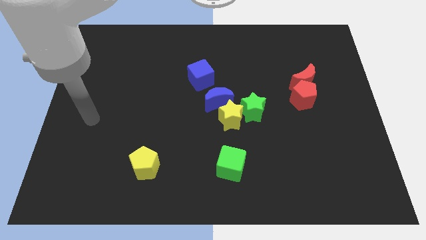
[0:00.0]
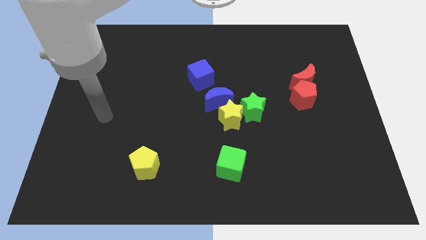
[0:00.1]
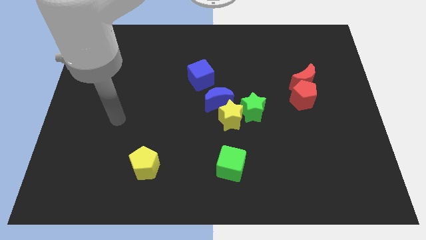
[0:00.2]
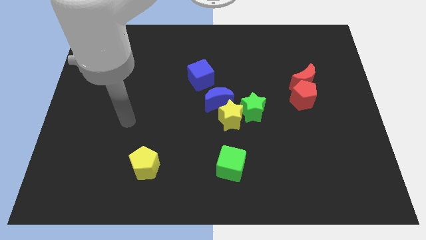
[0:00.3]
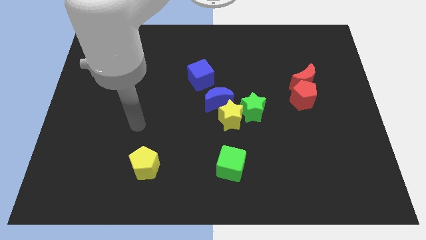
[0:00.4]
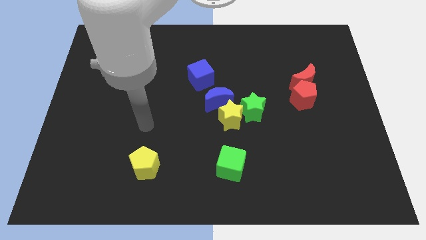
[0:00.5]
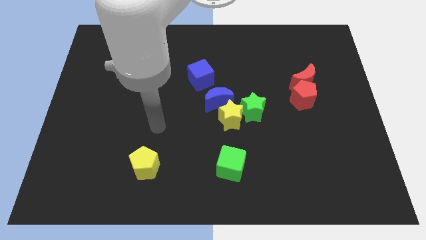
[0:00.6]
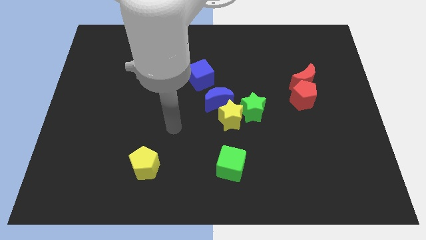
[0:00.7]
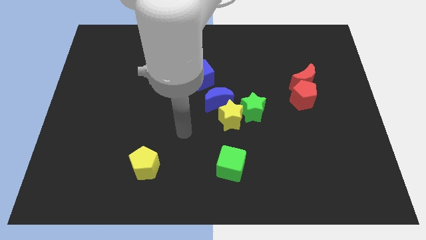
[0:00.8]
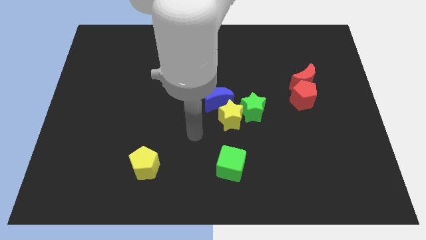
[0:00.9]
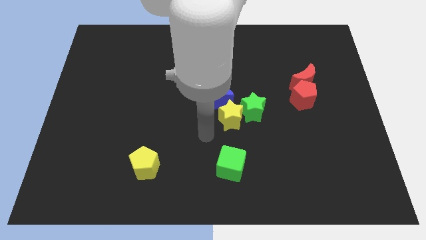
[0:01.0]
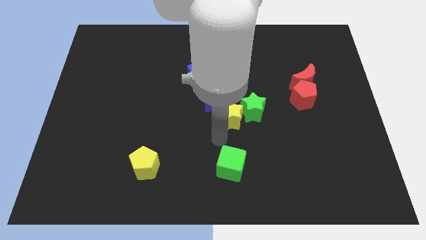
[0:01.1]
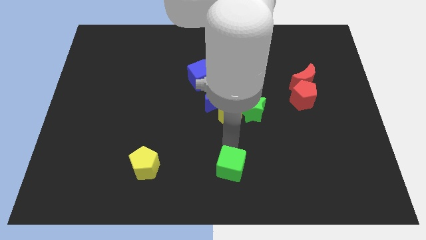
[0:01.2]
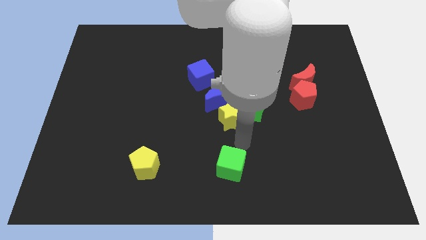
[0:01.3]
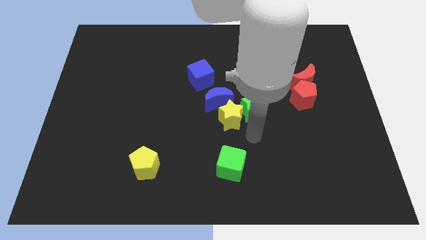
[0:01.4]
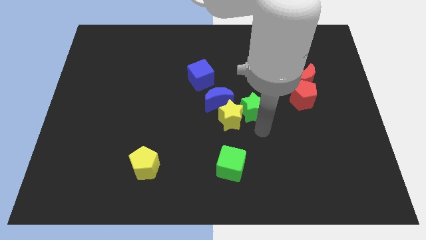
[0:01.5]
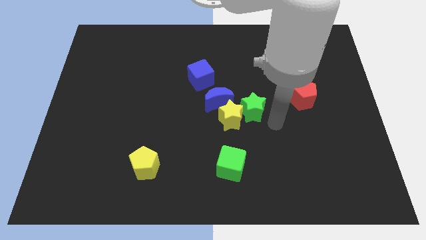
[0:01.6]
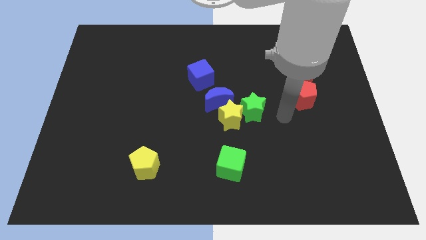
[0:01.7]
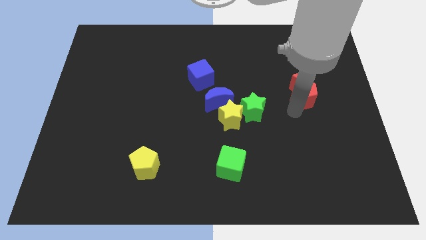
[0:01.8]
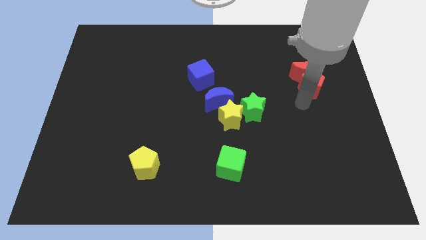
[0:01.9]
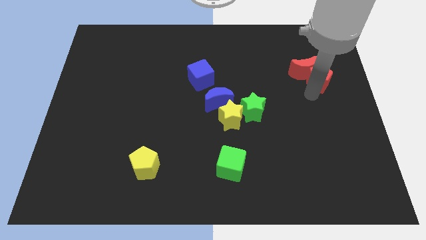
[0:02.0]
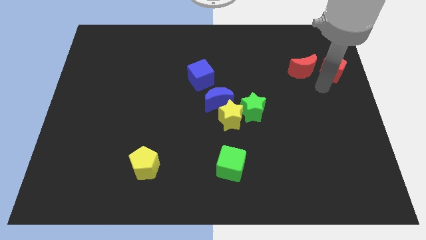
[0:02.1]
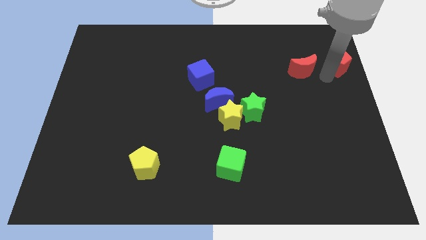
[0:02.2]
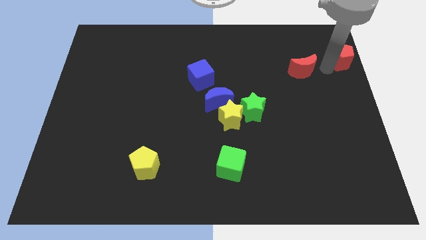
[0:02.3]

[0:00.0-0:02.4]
move the red moon away from the red pentagon

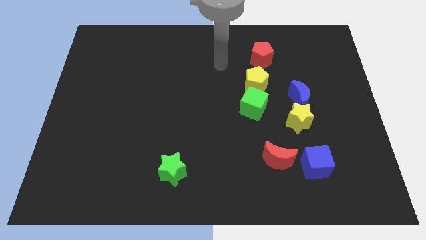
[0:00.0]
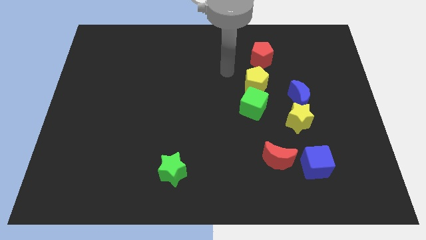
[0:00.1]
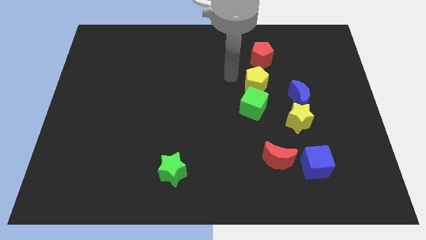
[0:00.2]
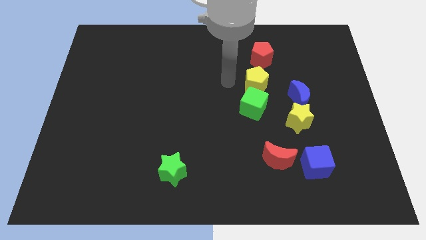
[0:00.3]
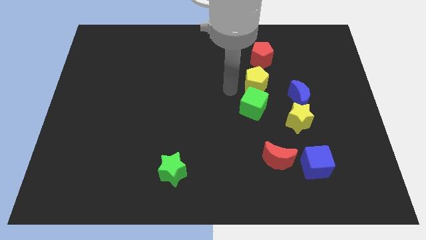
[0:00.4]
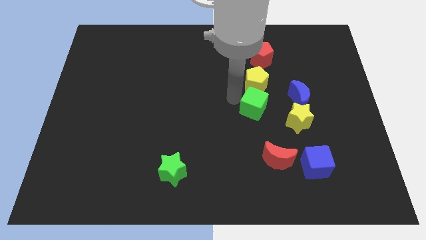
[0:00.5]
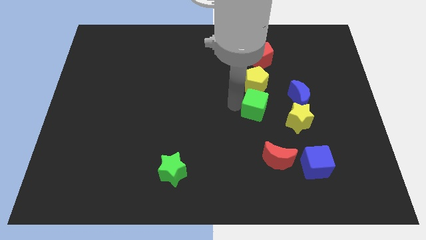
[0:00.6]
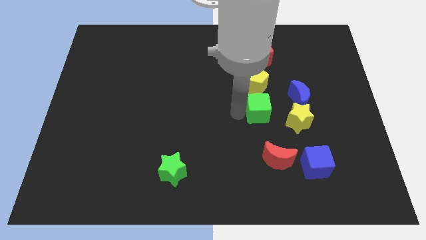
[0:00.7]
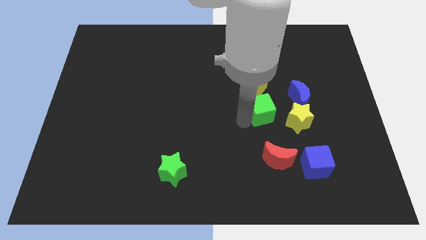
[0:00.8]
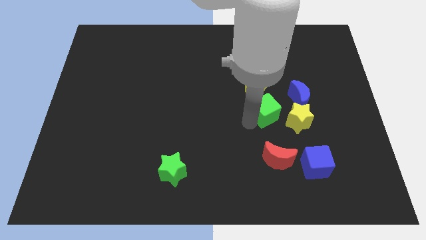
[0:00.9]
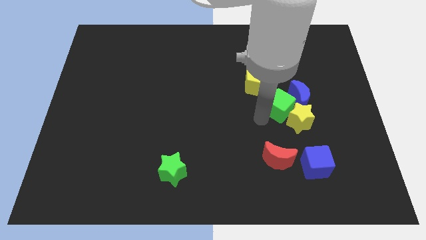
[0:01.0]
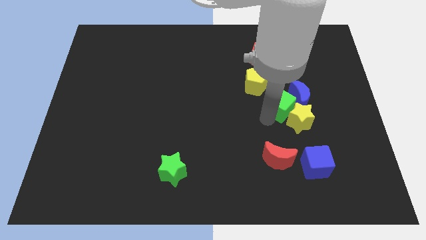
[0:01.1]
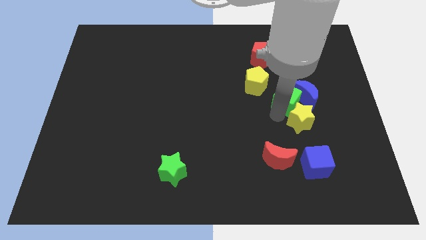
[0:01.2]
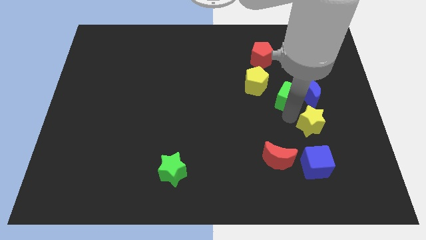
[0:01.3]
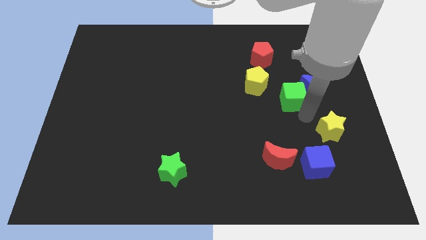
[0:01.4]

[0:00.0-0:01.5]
separate the blue moon from the yellow star

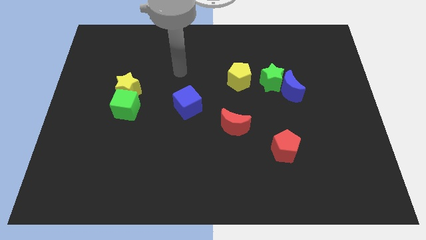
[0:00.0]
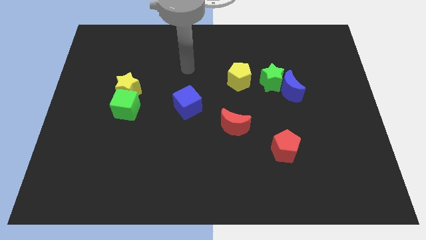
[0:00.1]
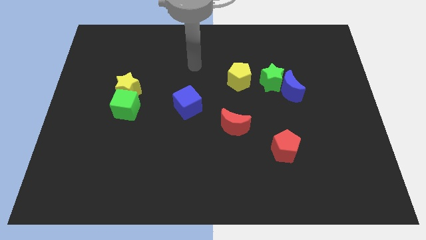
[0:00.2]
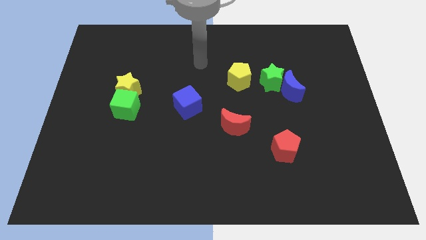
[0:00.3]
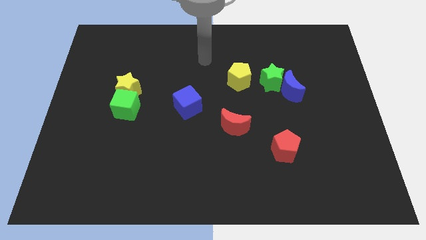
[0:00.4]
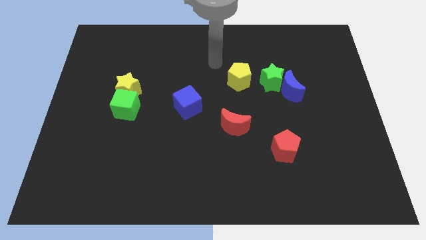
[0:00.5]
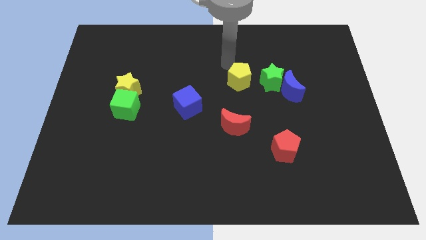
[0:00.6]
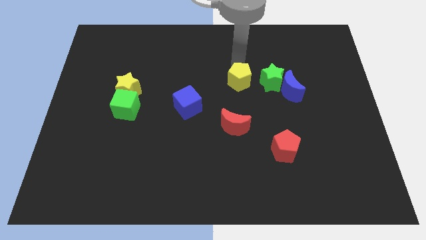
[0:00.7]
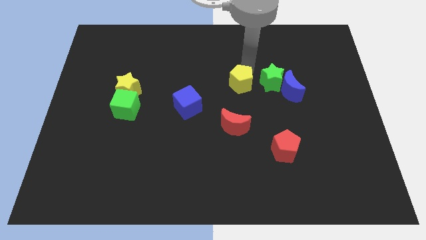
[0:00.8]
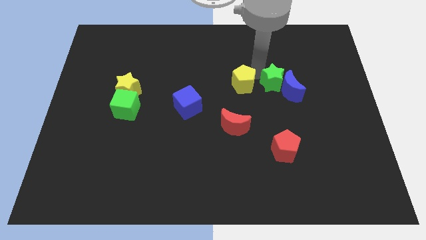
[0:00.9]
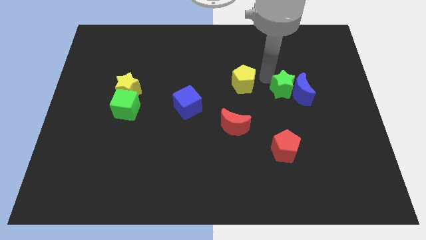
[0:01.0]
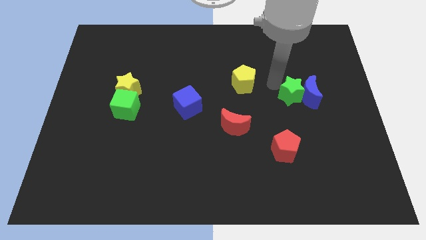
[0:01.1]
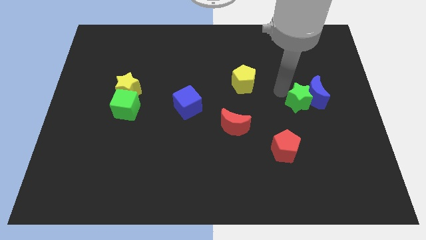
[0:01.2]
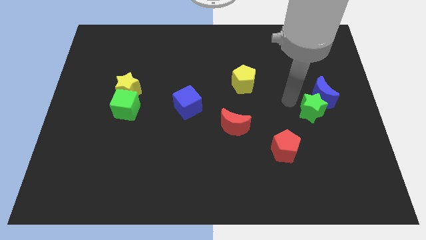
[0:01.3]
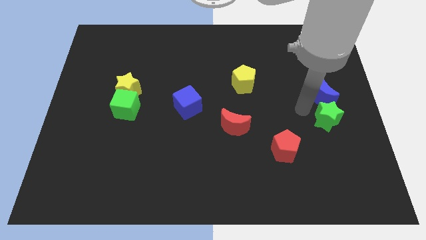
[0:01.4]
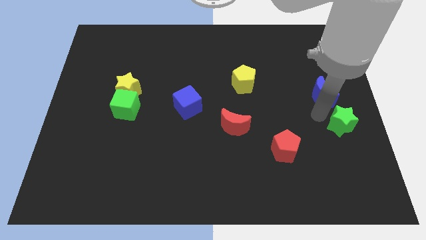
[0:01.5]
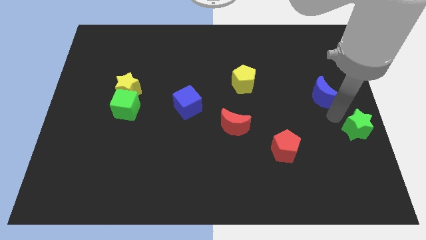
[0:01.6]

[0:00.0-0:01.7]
pull the blue moon apart from the green star

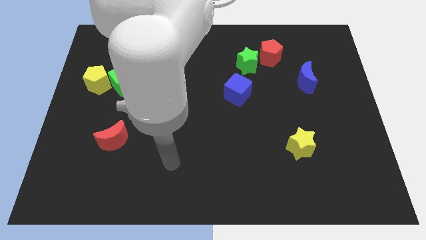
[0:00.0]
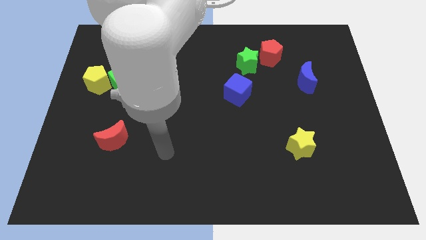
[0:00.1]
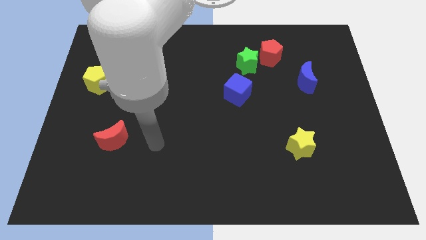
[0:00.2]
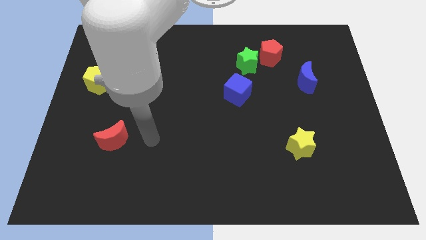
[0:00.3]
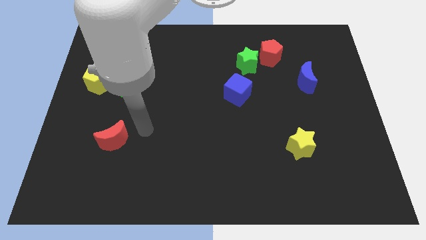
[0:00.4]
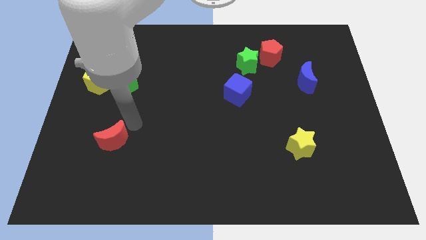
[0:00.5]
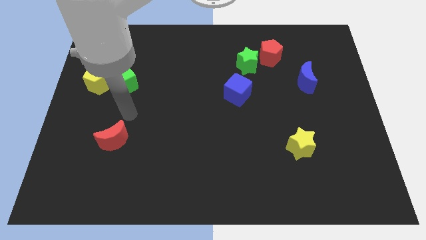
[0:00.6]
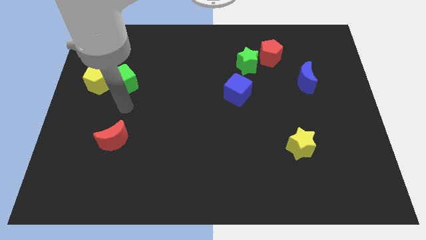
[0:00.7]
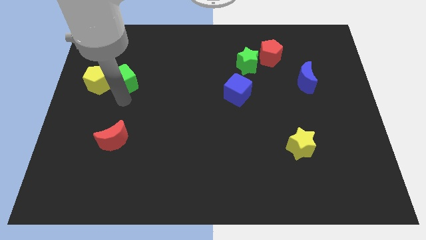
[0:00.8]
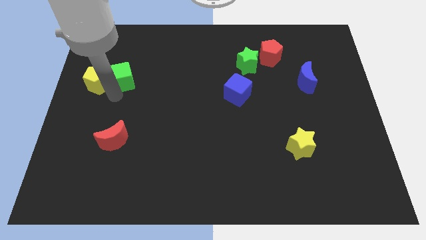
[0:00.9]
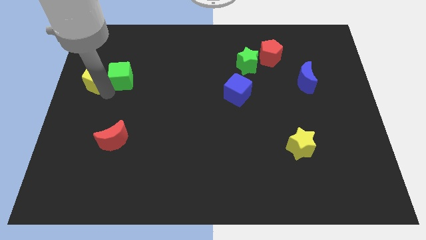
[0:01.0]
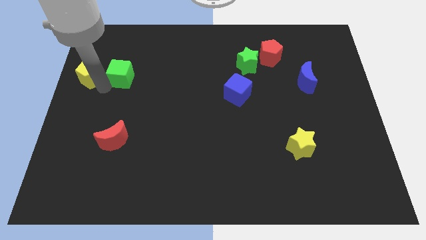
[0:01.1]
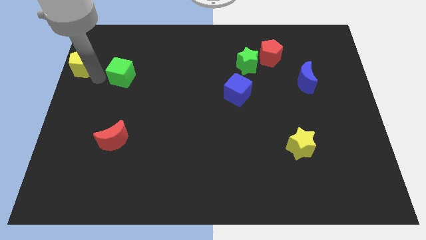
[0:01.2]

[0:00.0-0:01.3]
pull the green cube apart from the yellow pentagon

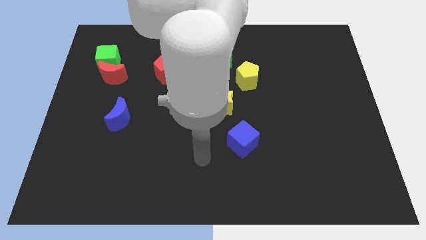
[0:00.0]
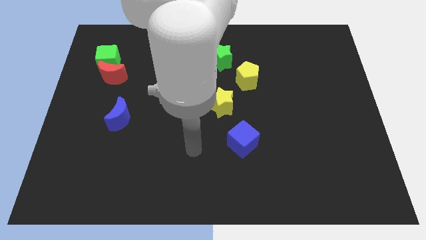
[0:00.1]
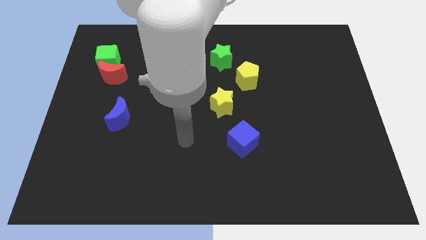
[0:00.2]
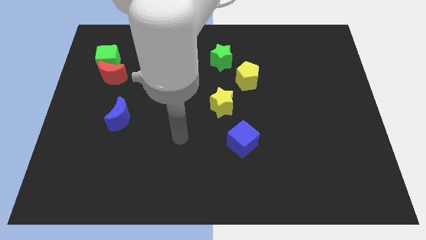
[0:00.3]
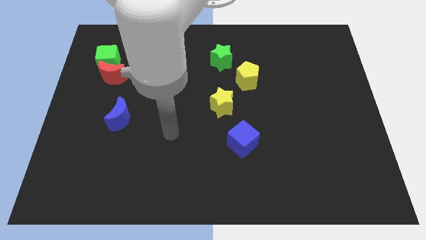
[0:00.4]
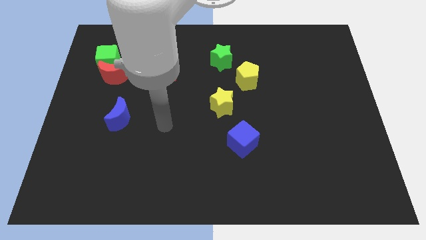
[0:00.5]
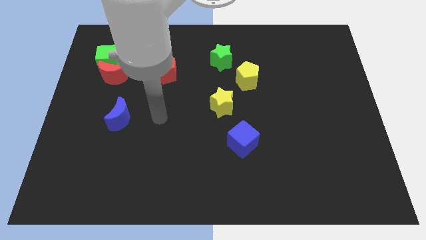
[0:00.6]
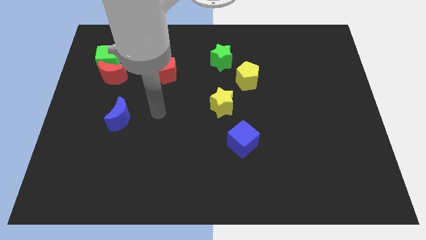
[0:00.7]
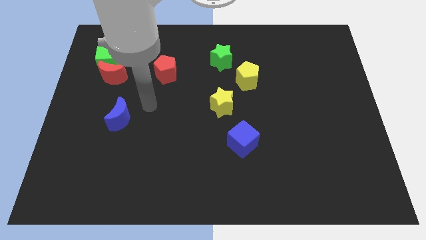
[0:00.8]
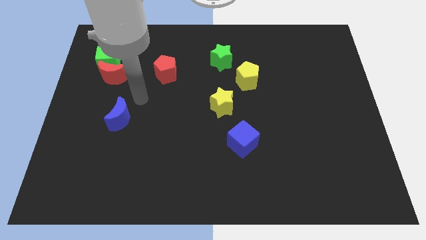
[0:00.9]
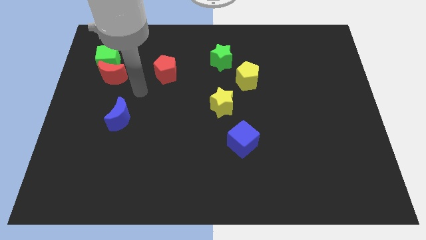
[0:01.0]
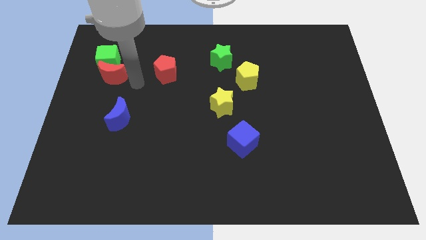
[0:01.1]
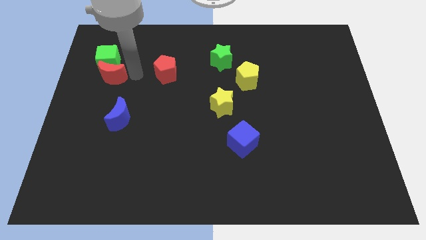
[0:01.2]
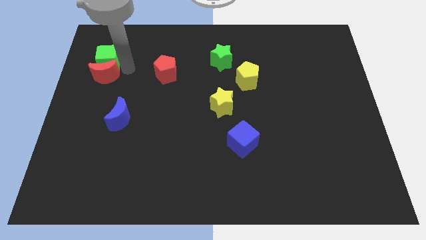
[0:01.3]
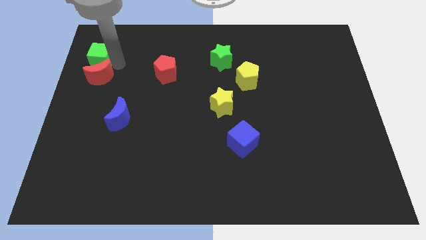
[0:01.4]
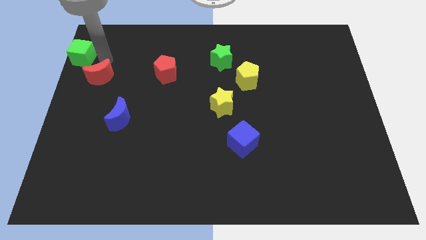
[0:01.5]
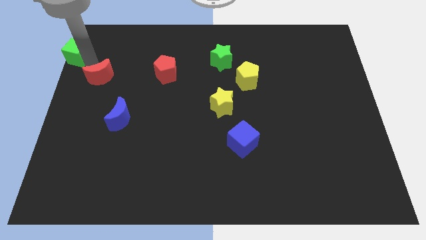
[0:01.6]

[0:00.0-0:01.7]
move the red moon away from the green cube

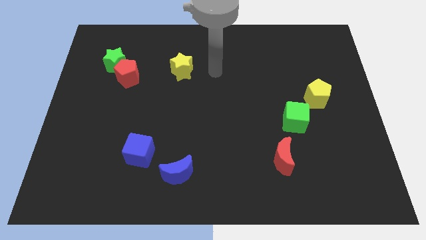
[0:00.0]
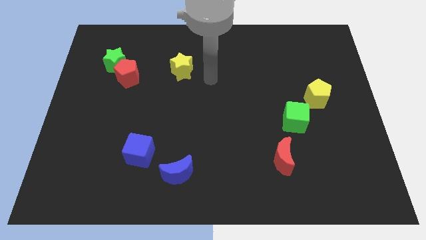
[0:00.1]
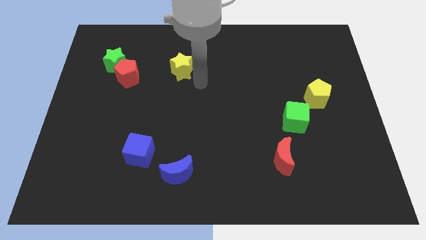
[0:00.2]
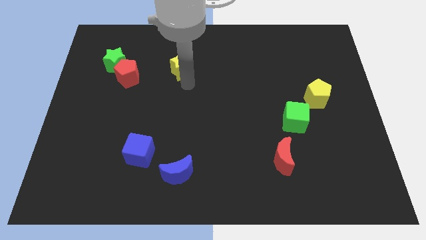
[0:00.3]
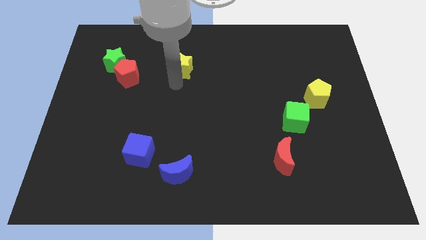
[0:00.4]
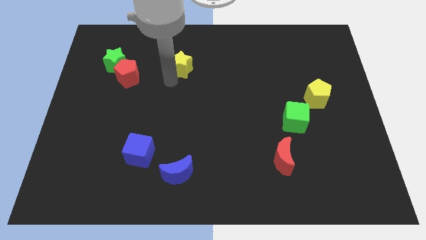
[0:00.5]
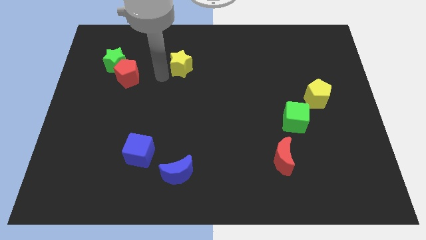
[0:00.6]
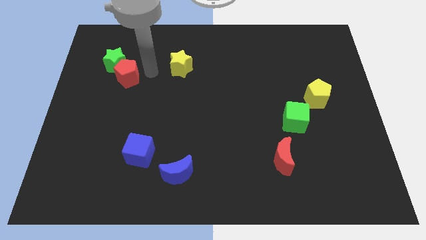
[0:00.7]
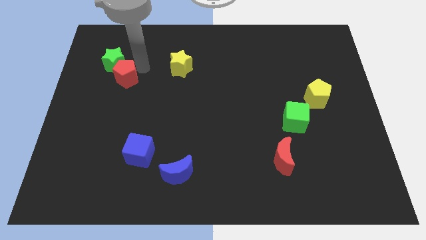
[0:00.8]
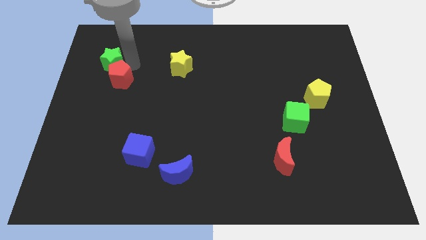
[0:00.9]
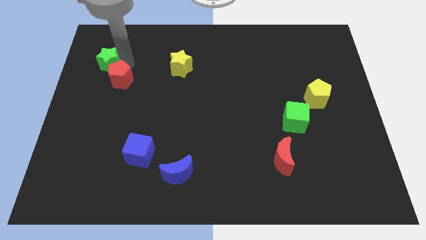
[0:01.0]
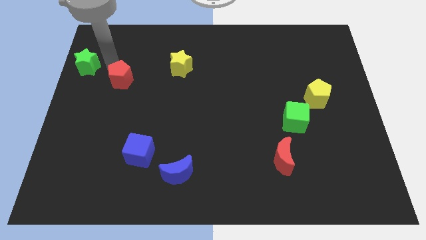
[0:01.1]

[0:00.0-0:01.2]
move the red pentagon away from the green star